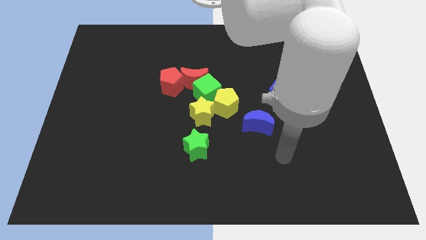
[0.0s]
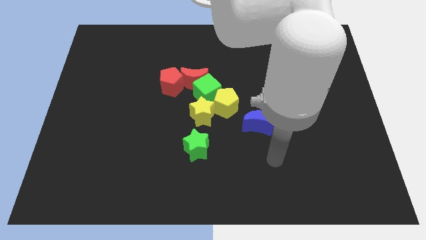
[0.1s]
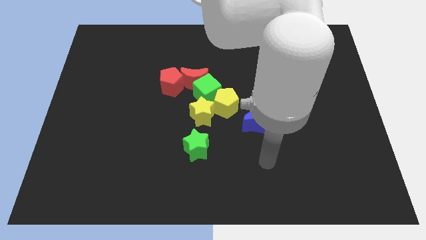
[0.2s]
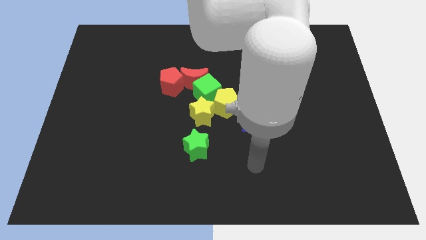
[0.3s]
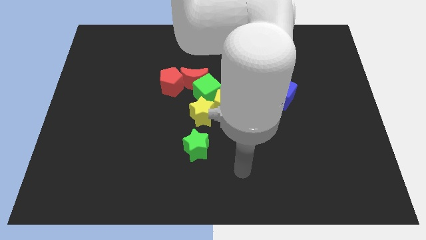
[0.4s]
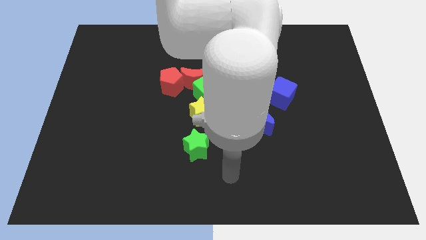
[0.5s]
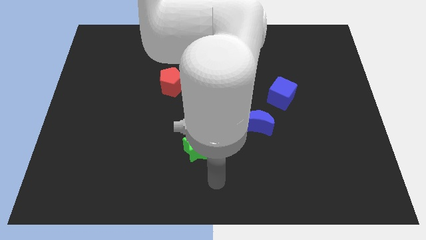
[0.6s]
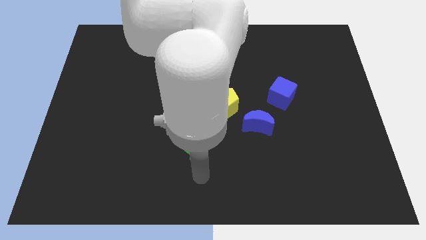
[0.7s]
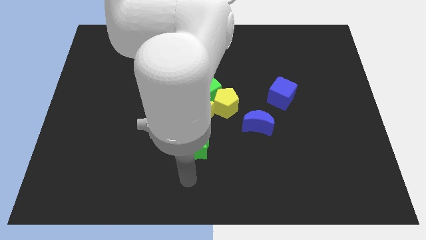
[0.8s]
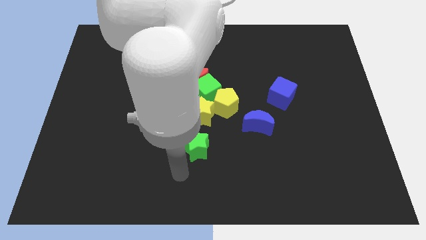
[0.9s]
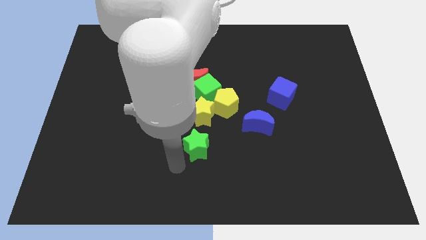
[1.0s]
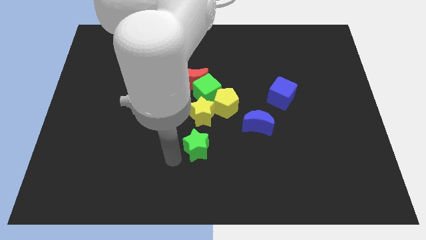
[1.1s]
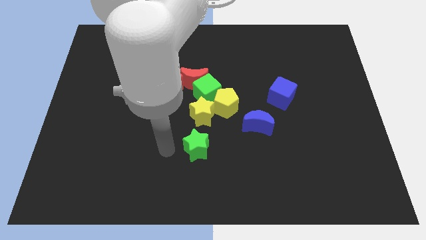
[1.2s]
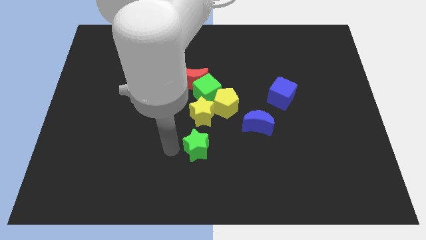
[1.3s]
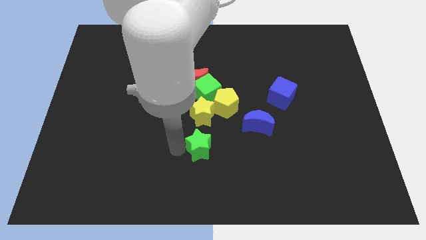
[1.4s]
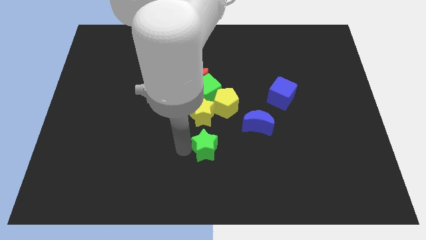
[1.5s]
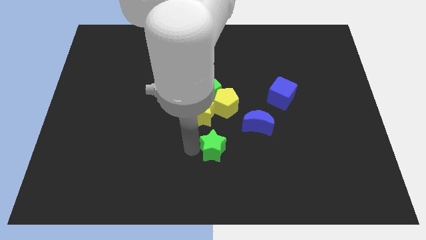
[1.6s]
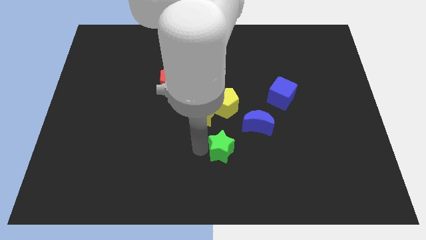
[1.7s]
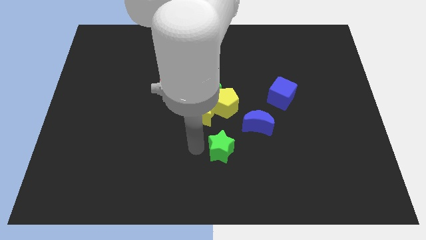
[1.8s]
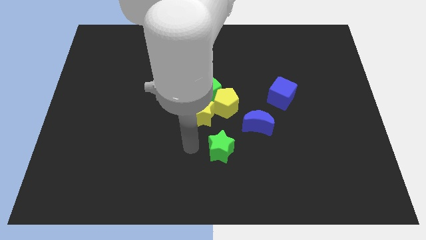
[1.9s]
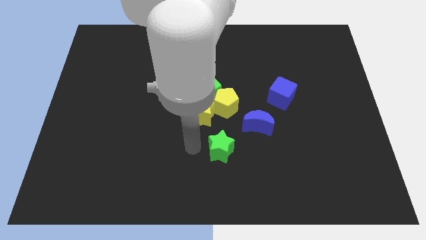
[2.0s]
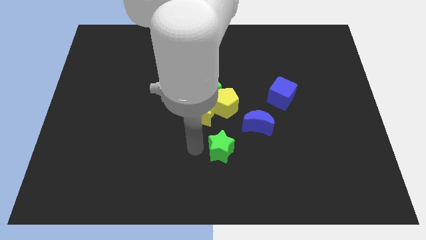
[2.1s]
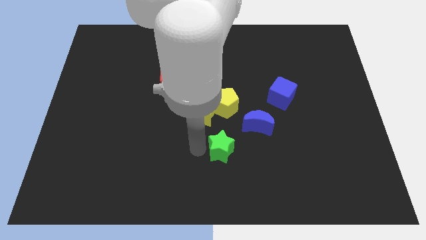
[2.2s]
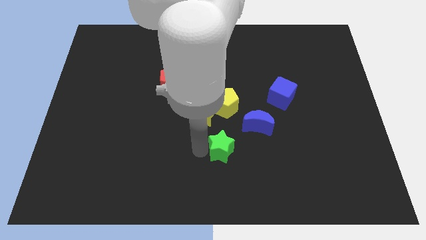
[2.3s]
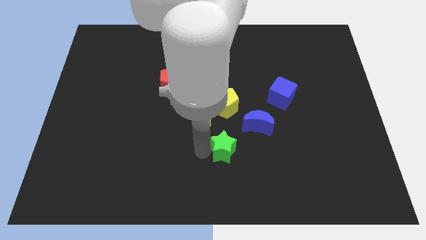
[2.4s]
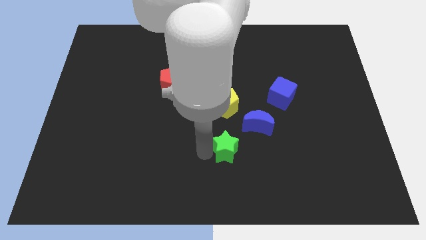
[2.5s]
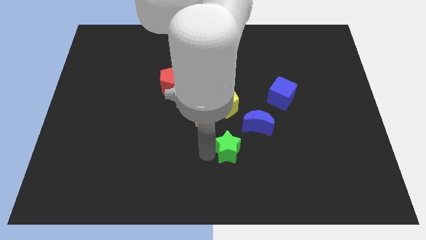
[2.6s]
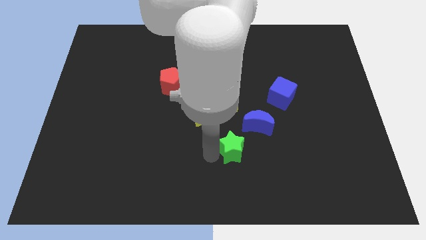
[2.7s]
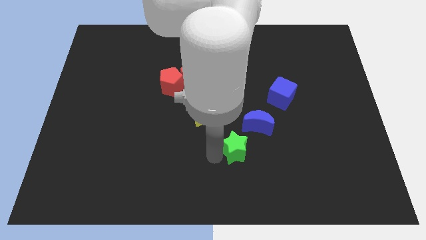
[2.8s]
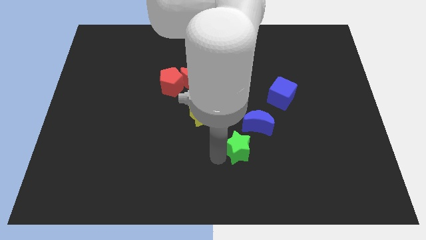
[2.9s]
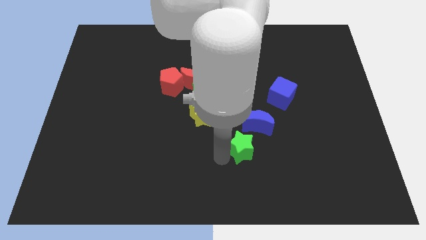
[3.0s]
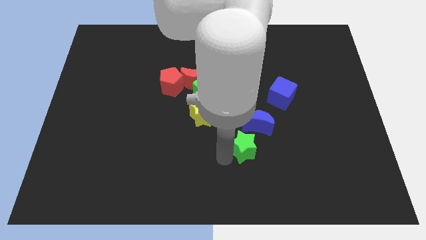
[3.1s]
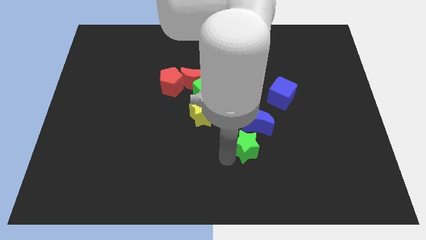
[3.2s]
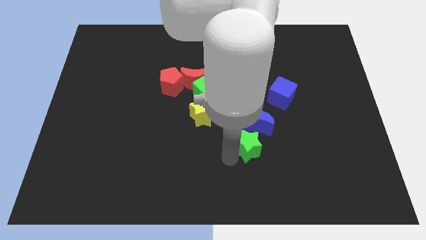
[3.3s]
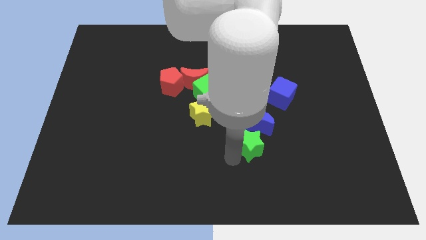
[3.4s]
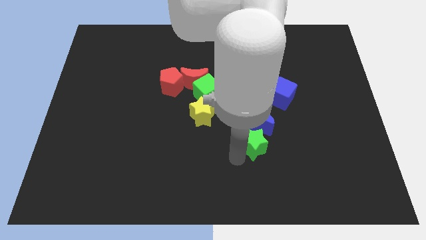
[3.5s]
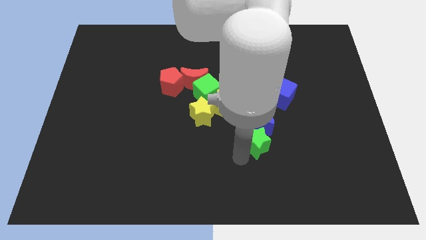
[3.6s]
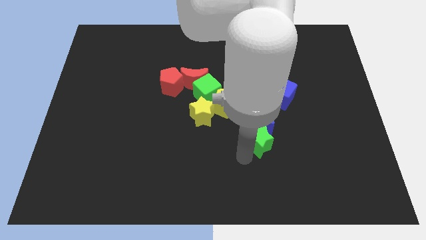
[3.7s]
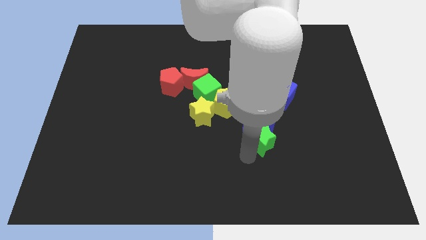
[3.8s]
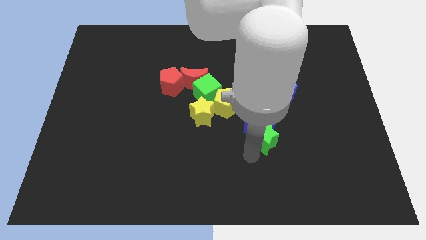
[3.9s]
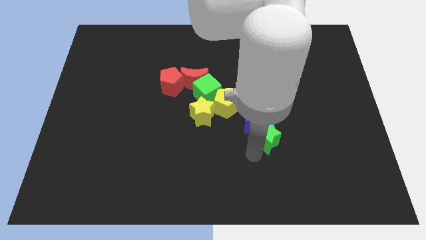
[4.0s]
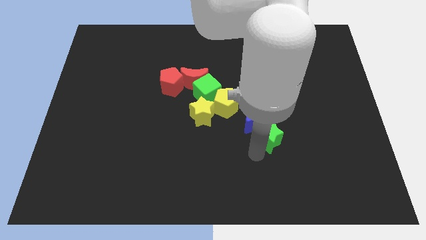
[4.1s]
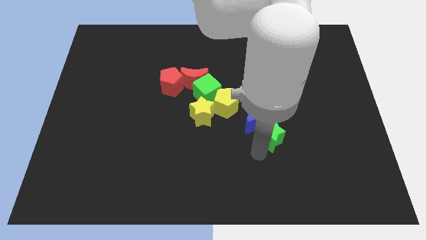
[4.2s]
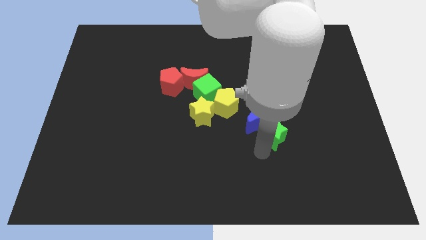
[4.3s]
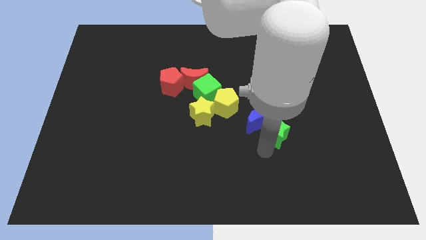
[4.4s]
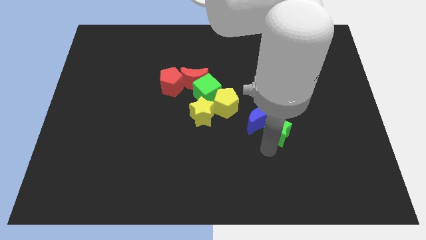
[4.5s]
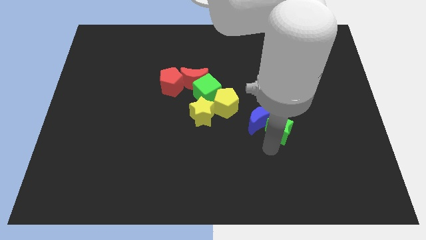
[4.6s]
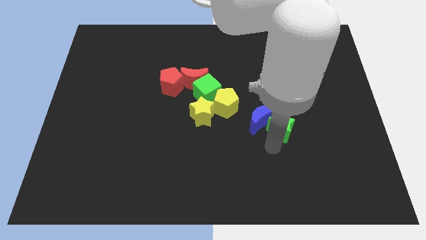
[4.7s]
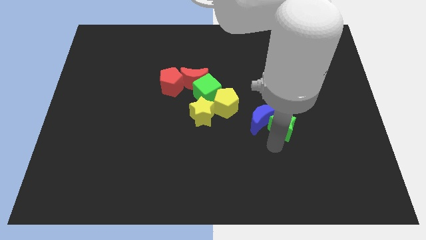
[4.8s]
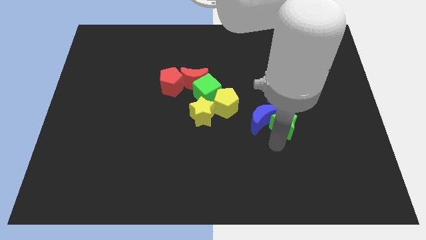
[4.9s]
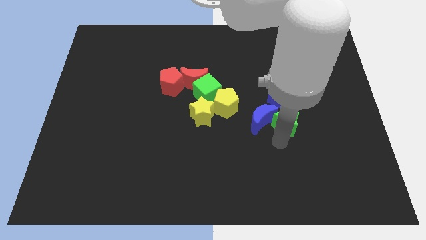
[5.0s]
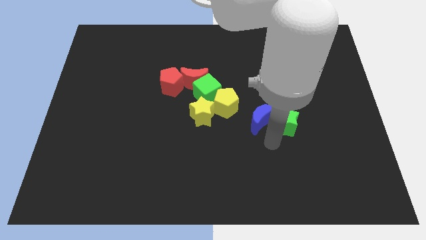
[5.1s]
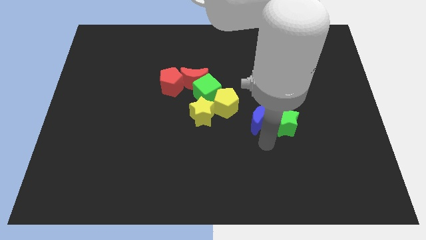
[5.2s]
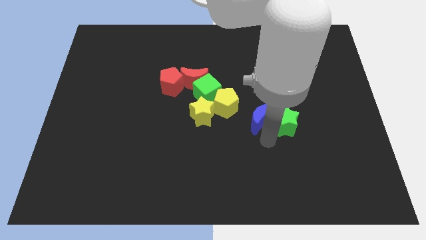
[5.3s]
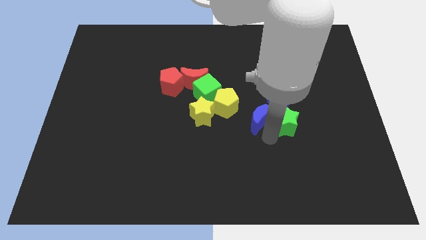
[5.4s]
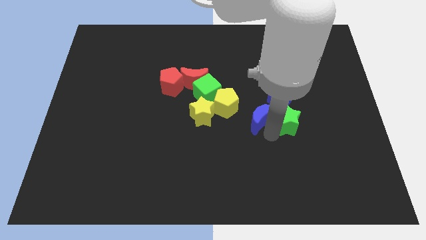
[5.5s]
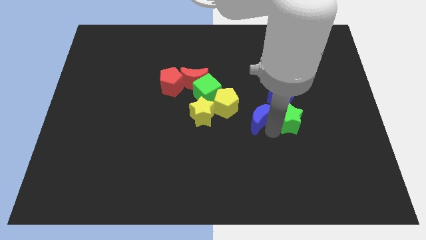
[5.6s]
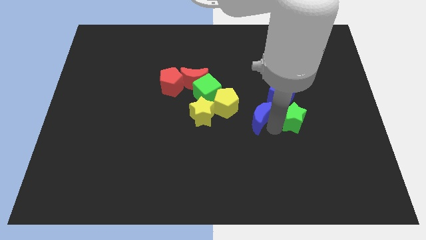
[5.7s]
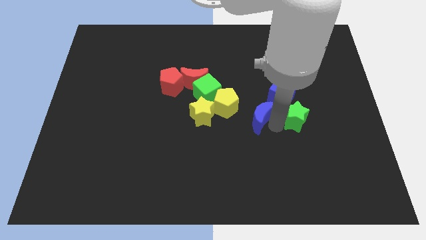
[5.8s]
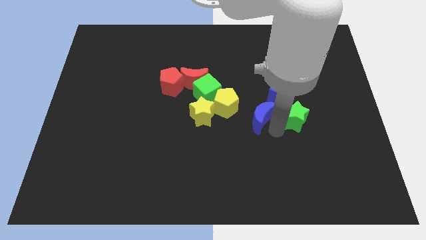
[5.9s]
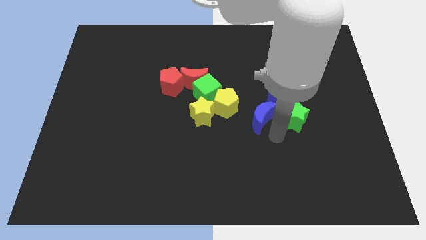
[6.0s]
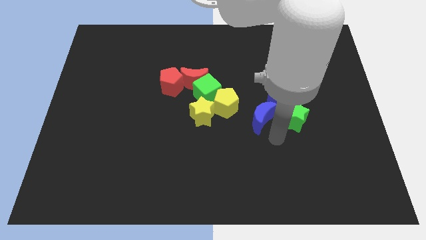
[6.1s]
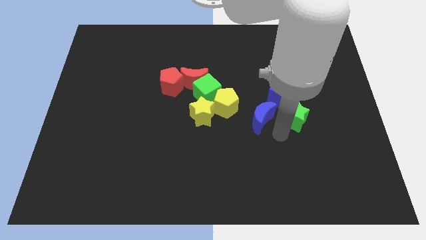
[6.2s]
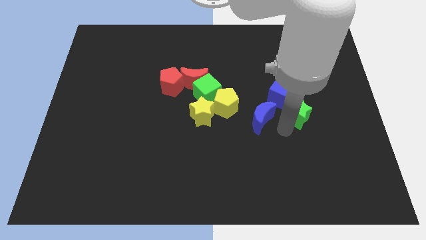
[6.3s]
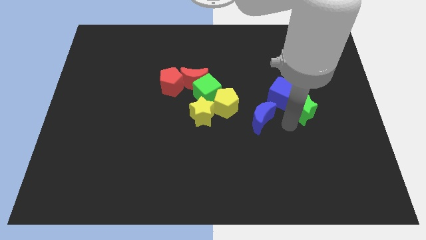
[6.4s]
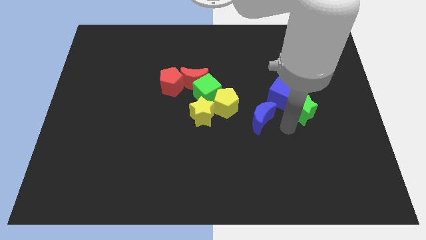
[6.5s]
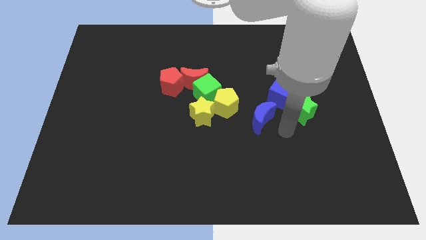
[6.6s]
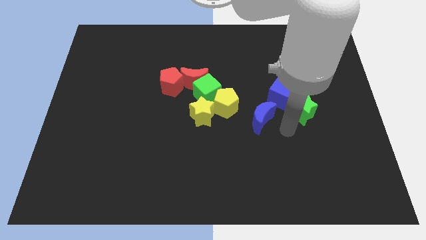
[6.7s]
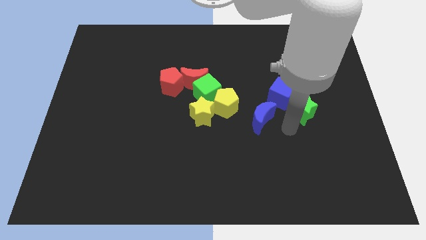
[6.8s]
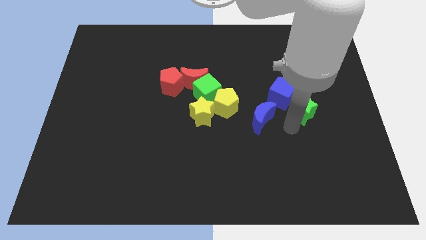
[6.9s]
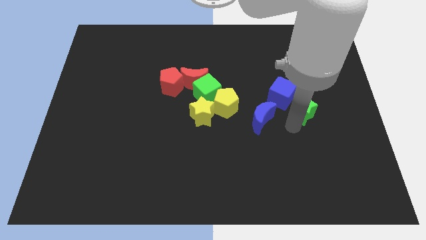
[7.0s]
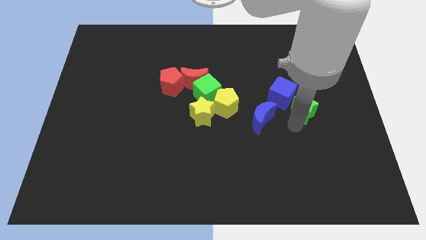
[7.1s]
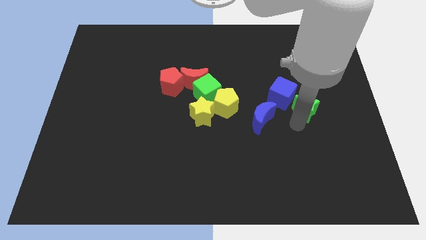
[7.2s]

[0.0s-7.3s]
push the green star up and right diagonally

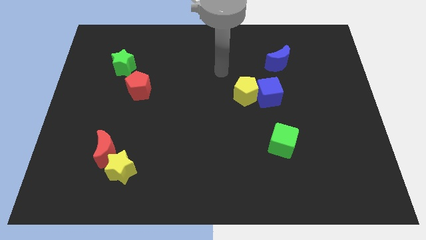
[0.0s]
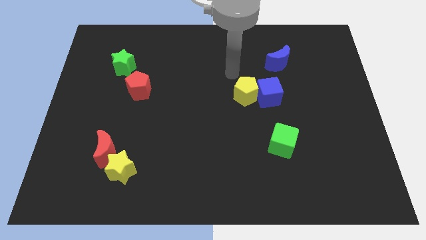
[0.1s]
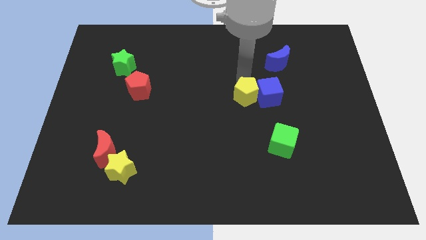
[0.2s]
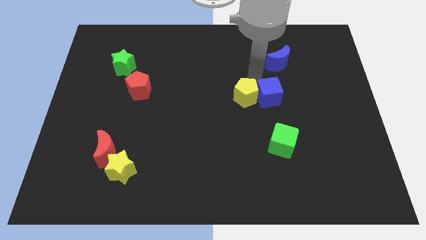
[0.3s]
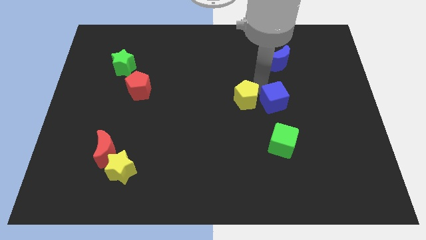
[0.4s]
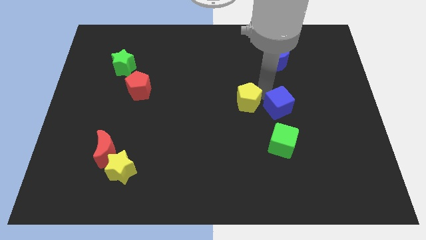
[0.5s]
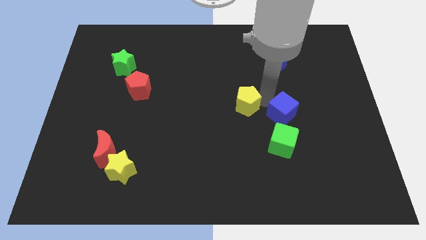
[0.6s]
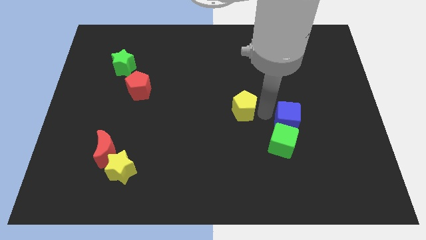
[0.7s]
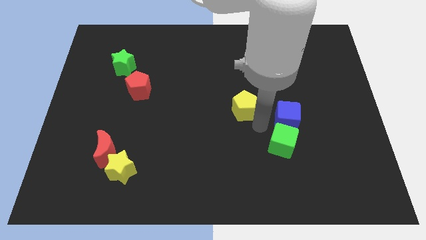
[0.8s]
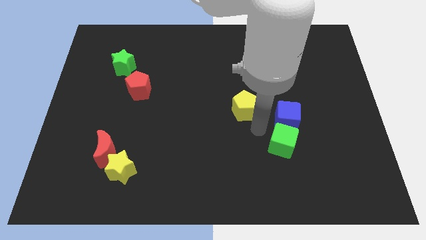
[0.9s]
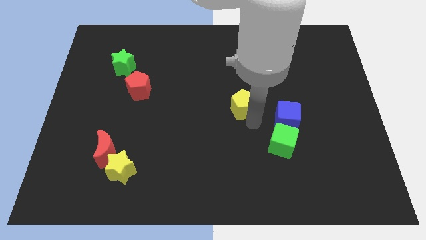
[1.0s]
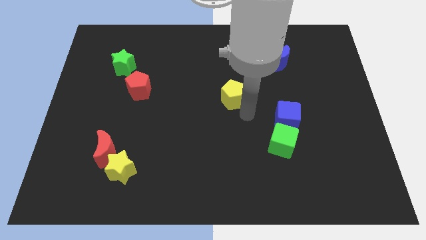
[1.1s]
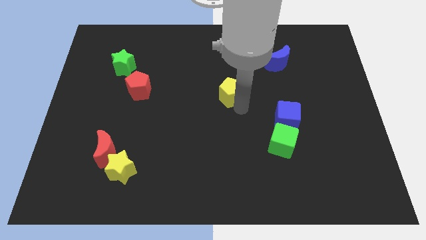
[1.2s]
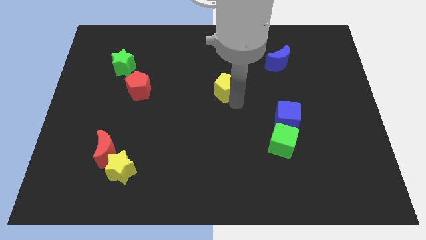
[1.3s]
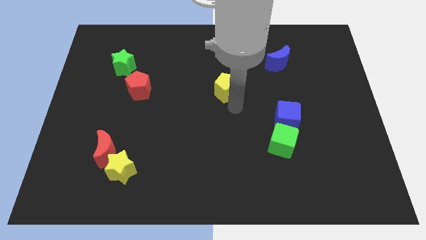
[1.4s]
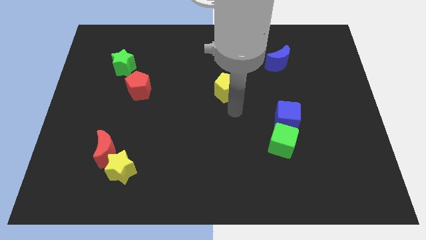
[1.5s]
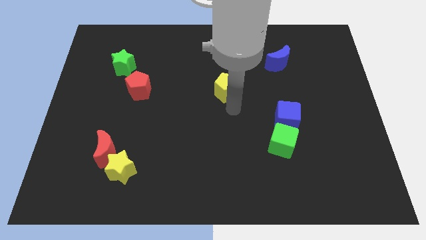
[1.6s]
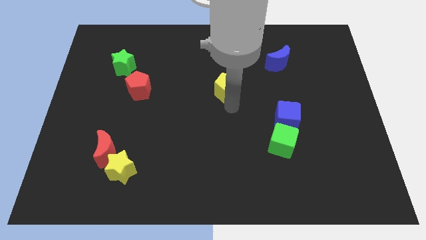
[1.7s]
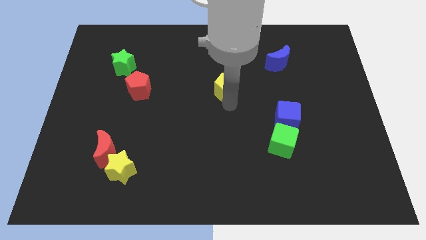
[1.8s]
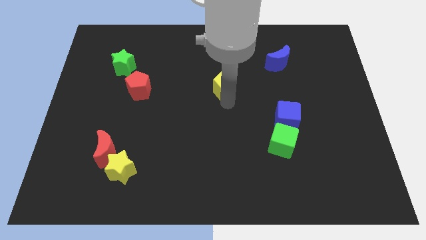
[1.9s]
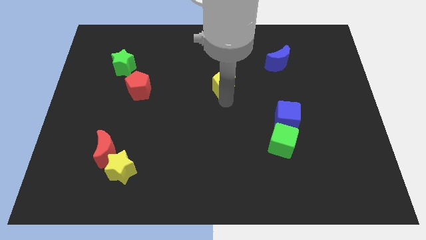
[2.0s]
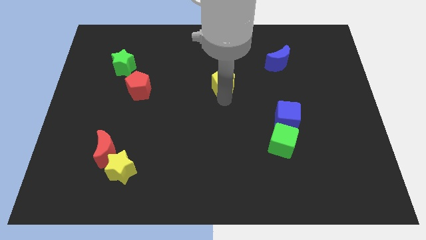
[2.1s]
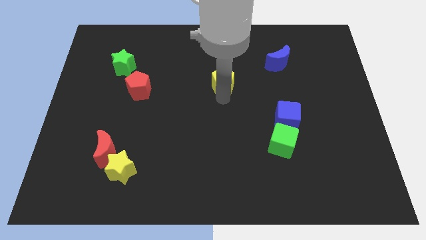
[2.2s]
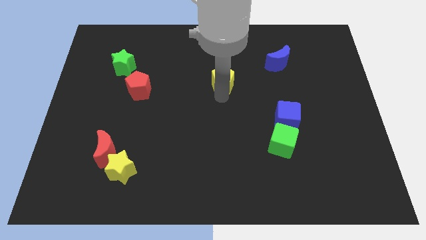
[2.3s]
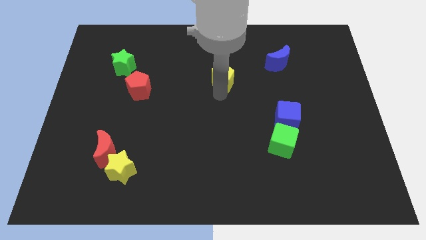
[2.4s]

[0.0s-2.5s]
push the yellow pentagon a bit diagonally up and left
